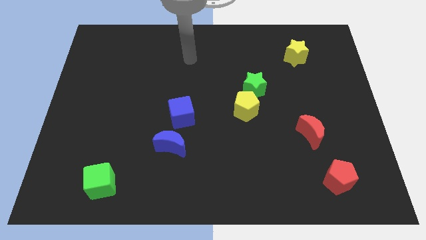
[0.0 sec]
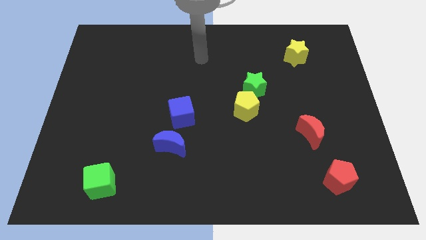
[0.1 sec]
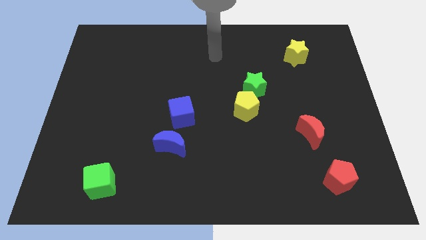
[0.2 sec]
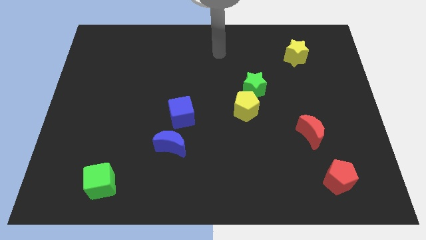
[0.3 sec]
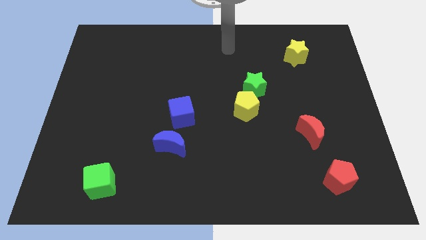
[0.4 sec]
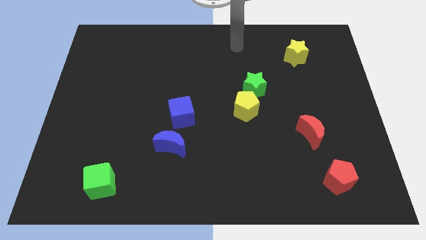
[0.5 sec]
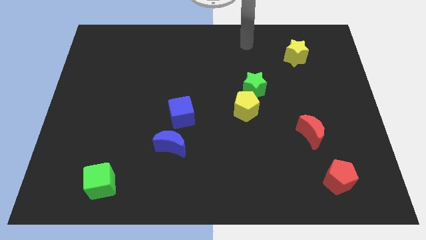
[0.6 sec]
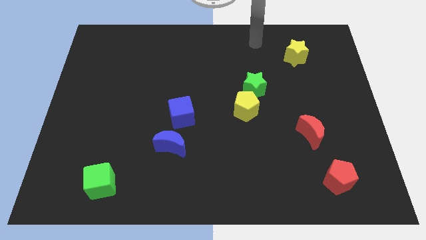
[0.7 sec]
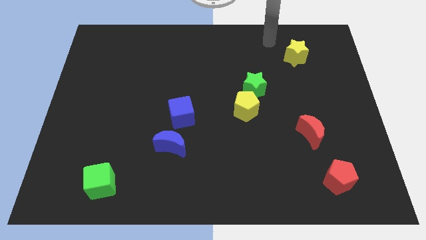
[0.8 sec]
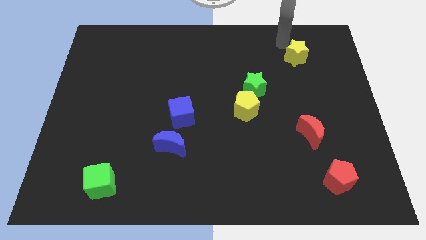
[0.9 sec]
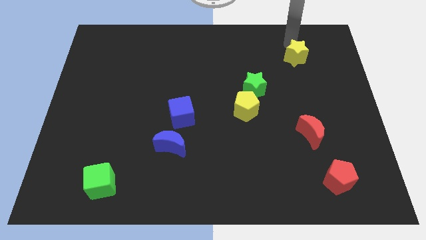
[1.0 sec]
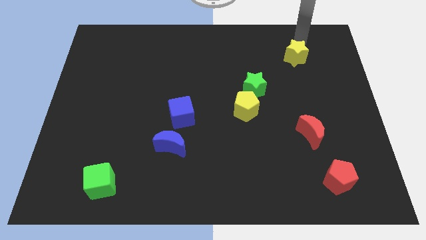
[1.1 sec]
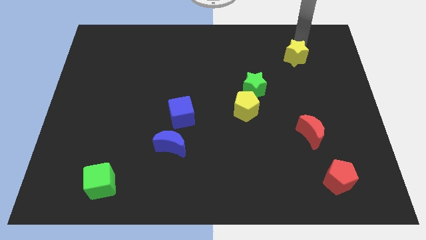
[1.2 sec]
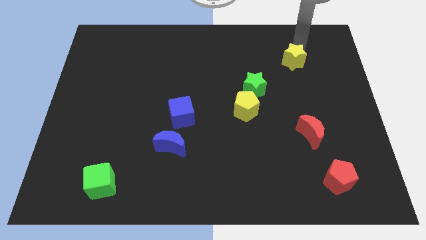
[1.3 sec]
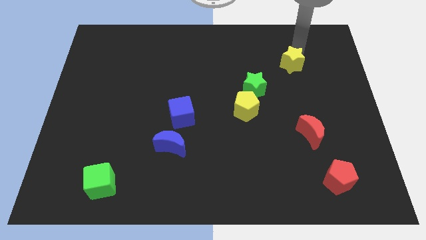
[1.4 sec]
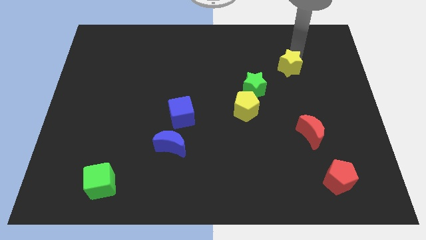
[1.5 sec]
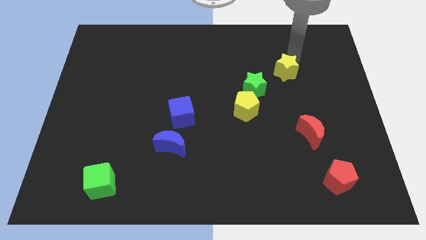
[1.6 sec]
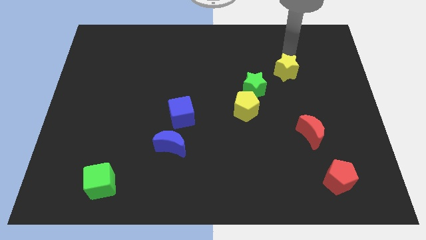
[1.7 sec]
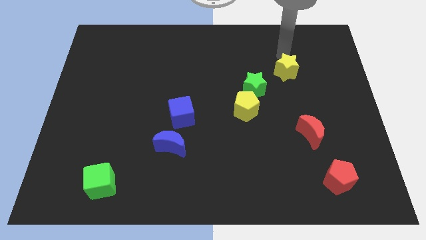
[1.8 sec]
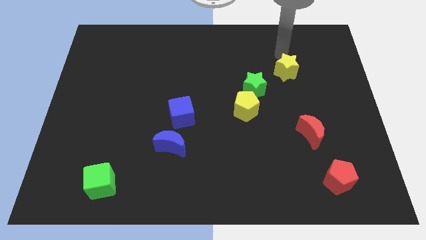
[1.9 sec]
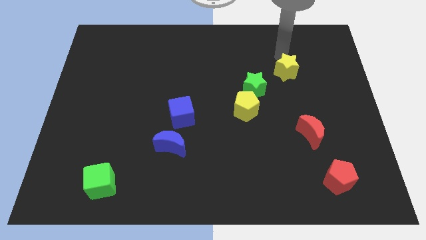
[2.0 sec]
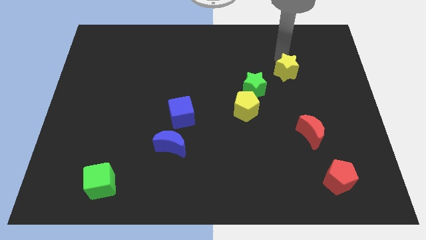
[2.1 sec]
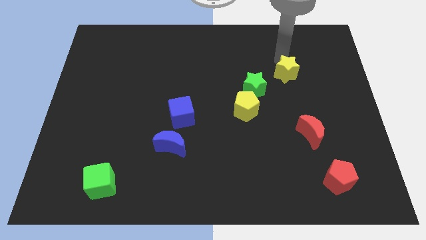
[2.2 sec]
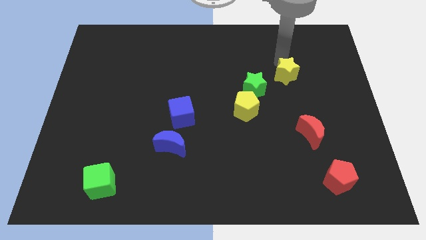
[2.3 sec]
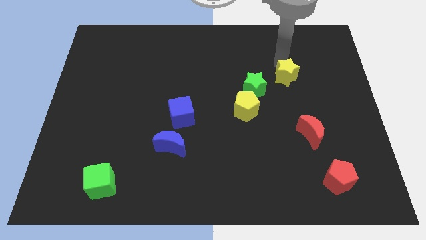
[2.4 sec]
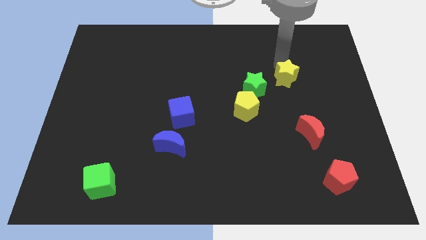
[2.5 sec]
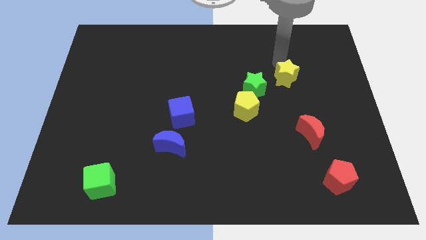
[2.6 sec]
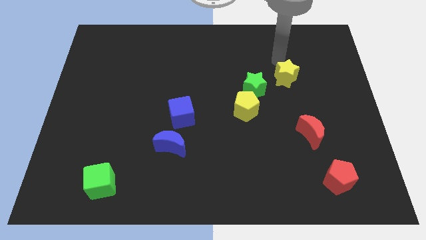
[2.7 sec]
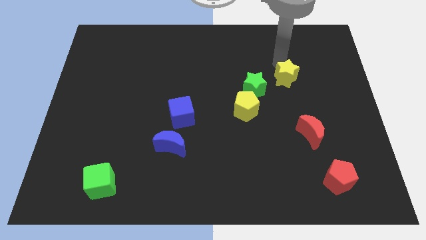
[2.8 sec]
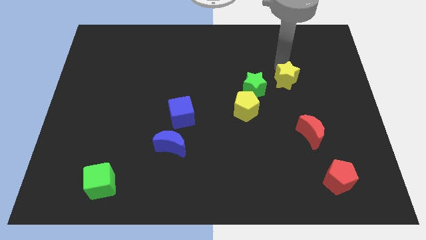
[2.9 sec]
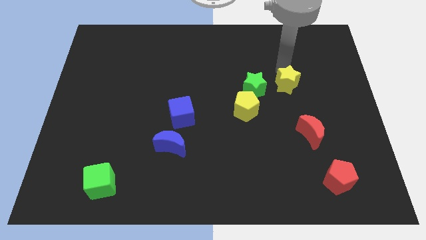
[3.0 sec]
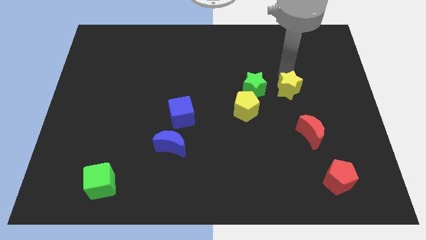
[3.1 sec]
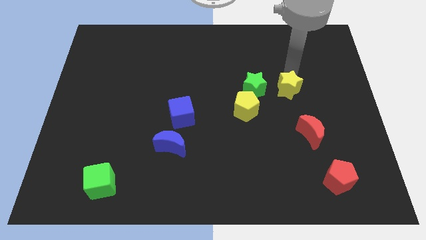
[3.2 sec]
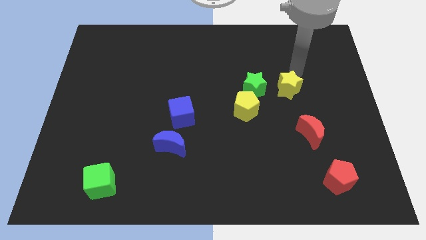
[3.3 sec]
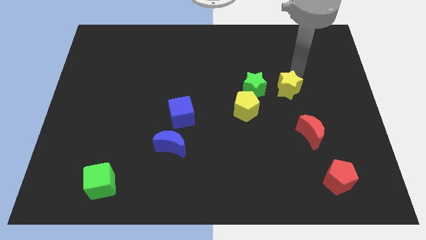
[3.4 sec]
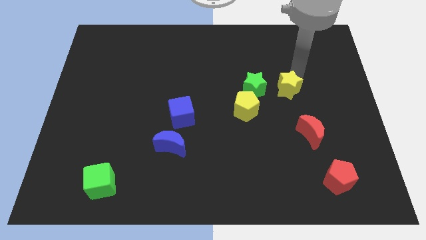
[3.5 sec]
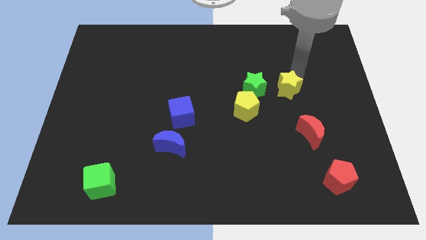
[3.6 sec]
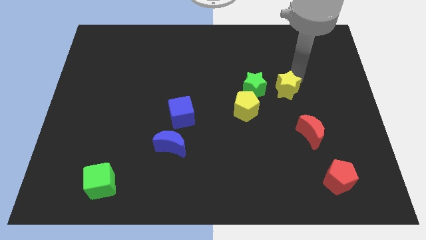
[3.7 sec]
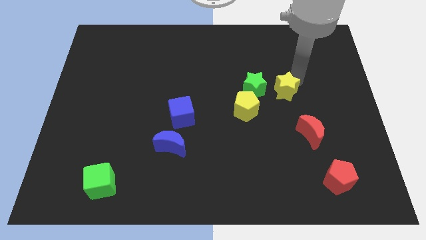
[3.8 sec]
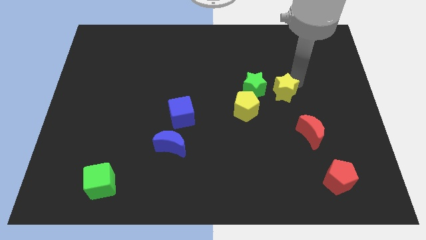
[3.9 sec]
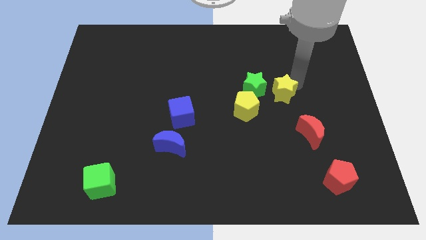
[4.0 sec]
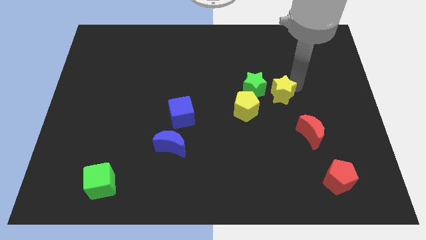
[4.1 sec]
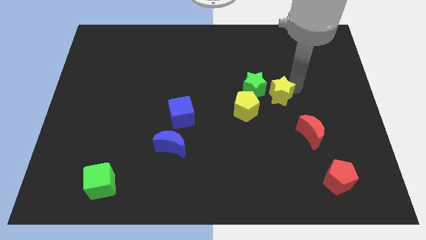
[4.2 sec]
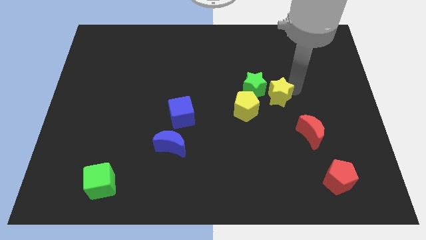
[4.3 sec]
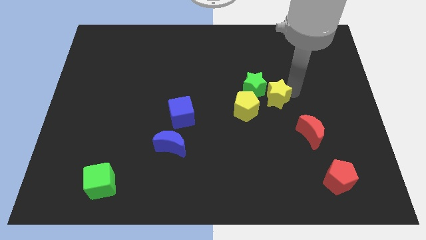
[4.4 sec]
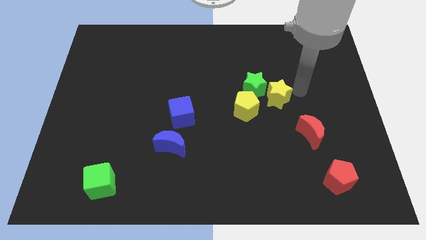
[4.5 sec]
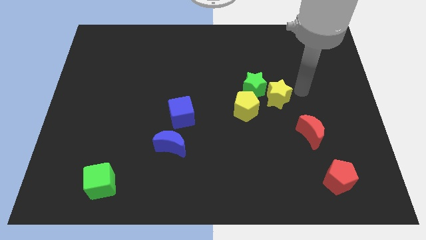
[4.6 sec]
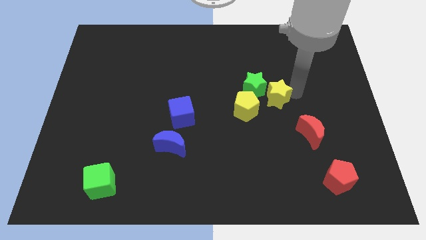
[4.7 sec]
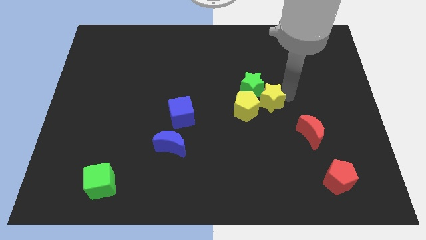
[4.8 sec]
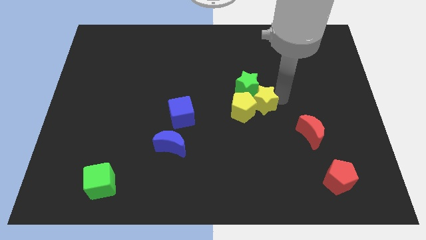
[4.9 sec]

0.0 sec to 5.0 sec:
push the yellow star to the yellow pentagon

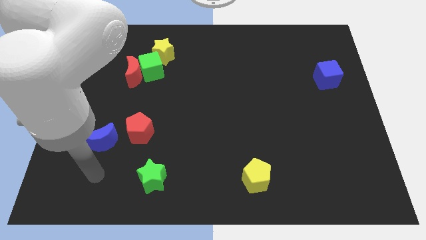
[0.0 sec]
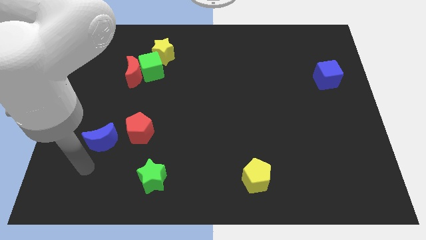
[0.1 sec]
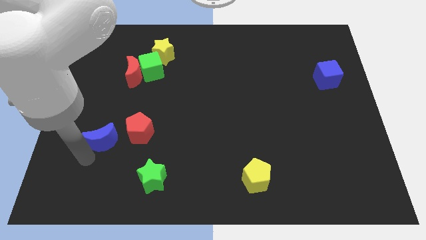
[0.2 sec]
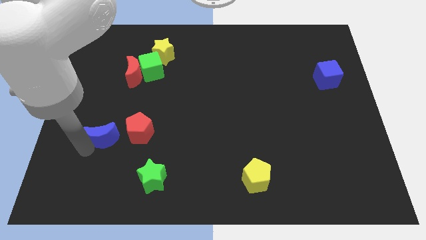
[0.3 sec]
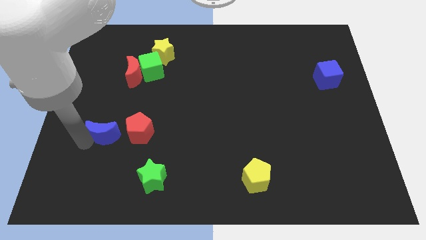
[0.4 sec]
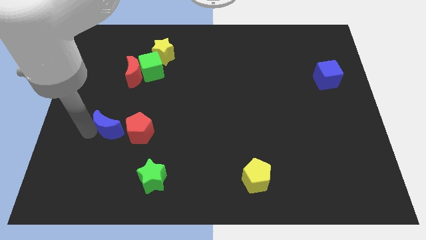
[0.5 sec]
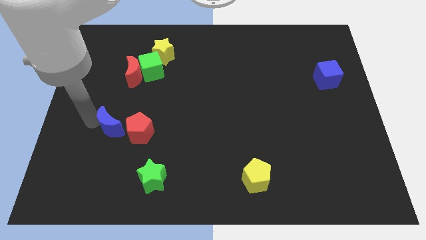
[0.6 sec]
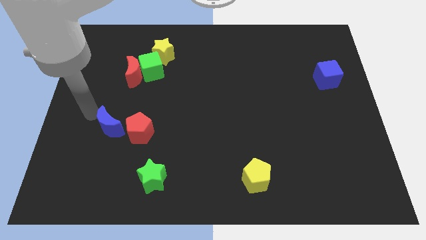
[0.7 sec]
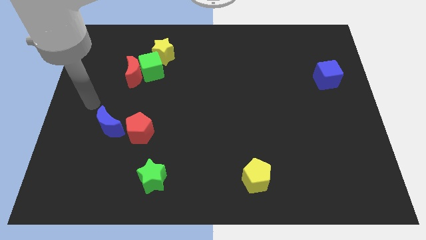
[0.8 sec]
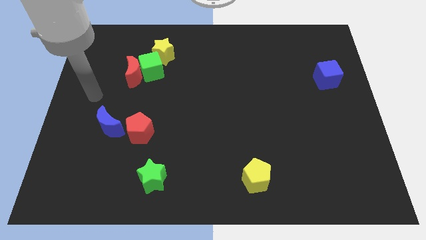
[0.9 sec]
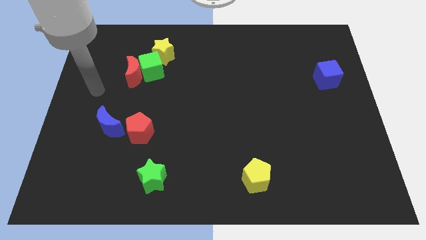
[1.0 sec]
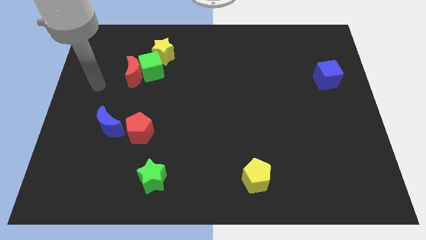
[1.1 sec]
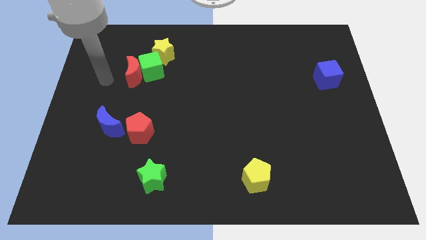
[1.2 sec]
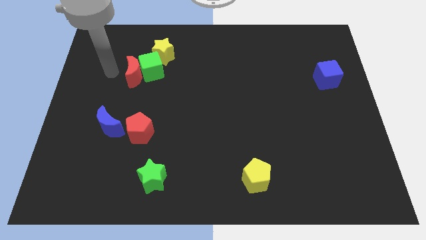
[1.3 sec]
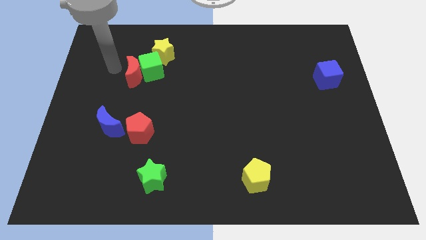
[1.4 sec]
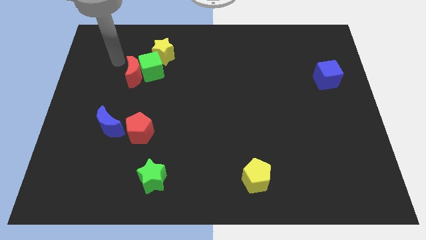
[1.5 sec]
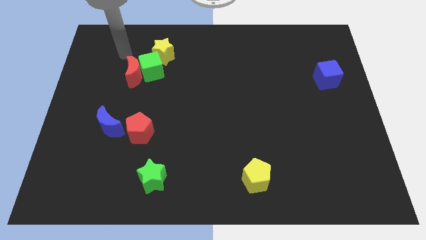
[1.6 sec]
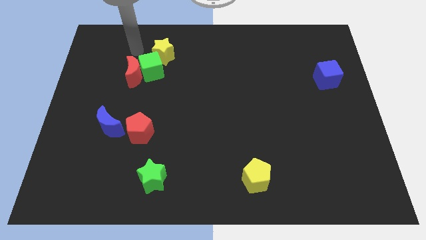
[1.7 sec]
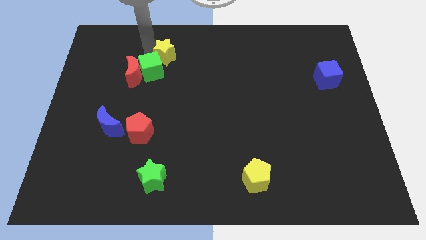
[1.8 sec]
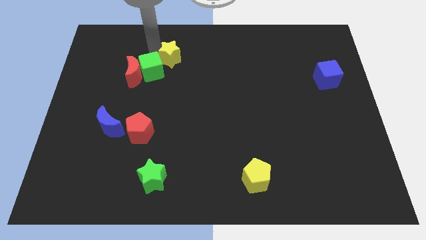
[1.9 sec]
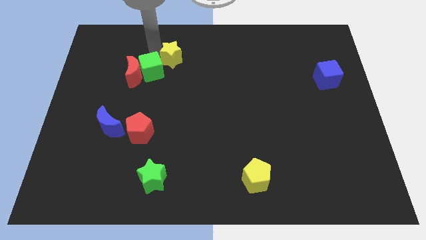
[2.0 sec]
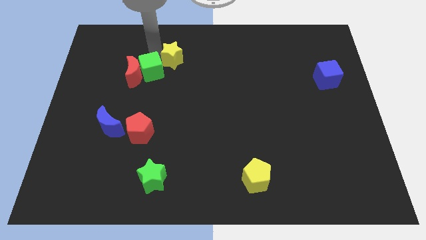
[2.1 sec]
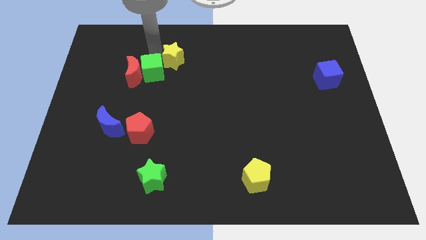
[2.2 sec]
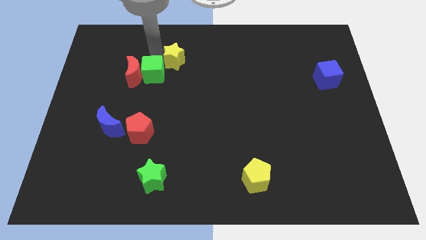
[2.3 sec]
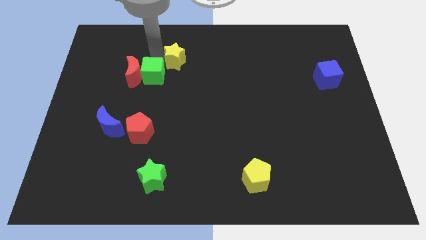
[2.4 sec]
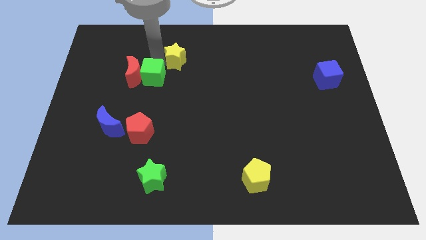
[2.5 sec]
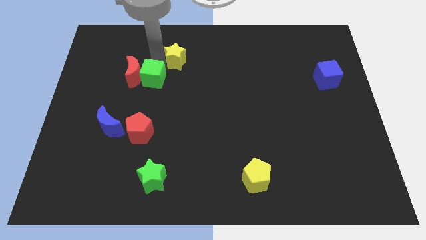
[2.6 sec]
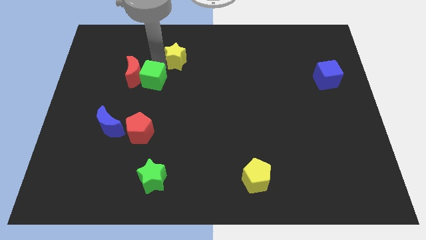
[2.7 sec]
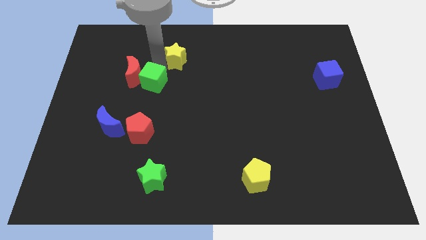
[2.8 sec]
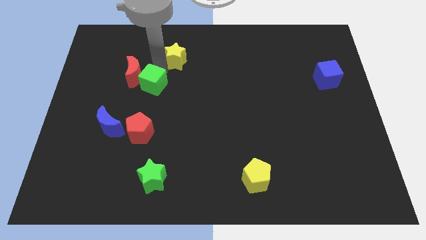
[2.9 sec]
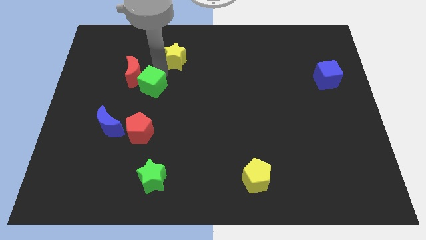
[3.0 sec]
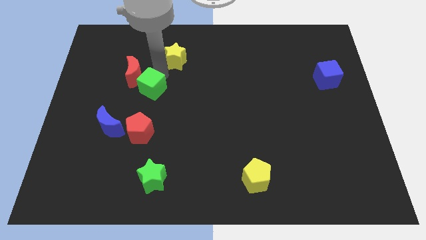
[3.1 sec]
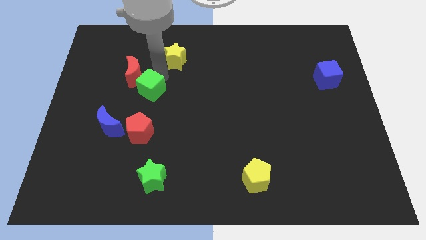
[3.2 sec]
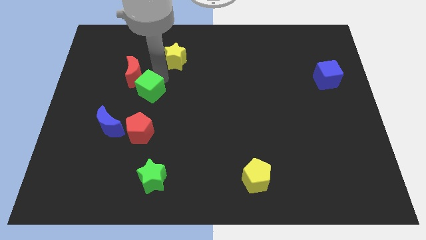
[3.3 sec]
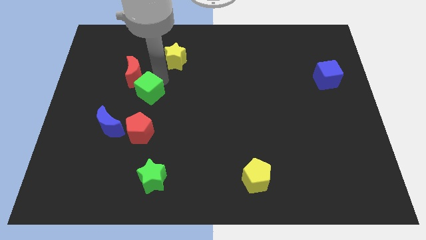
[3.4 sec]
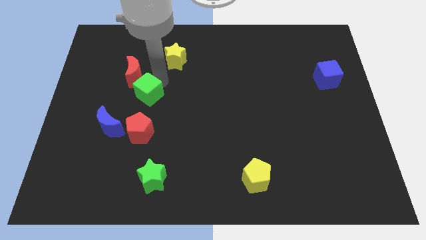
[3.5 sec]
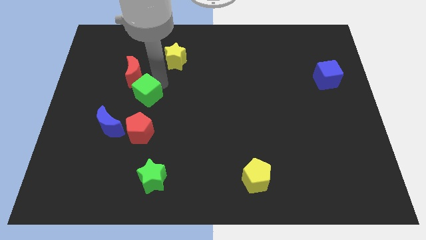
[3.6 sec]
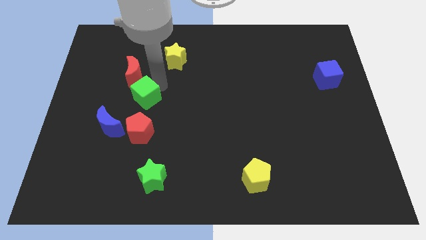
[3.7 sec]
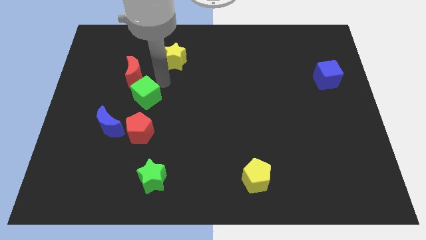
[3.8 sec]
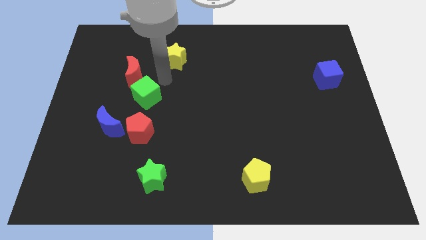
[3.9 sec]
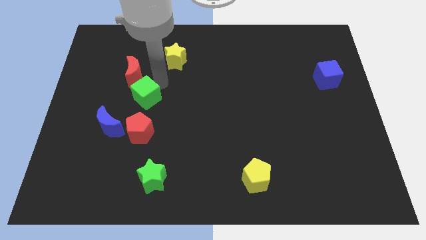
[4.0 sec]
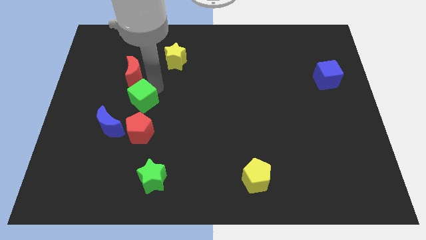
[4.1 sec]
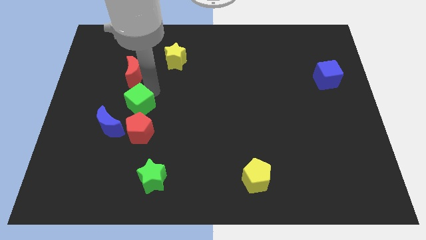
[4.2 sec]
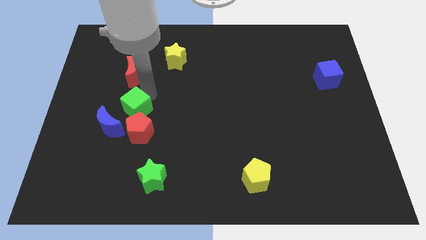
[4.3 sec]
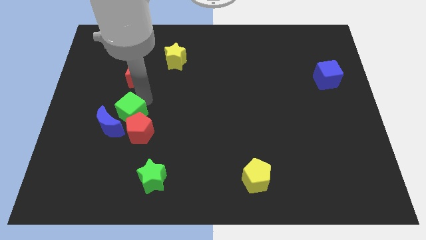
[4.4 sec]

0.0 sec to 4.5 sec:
push the green cube towards the blue moon
